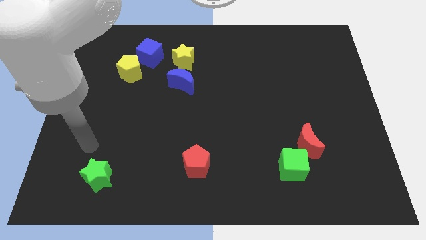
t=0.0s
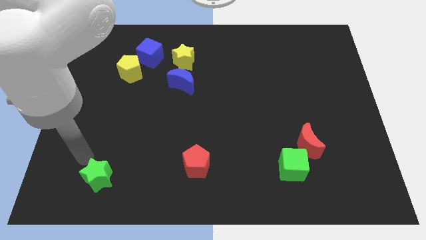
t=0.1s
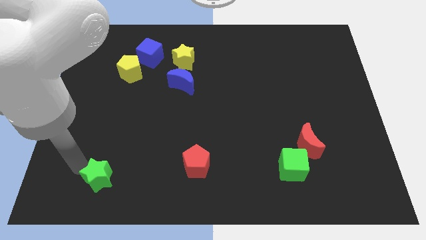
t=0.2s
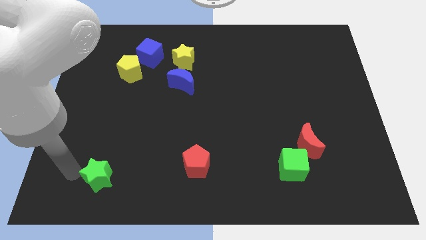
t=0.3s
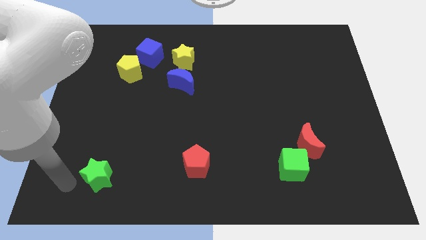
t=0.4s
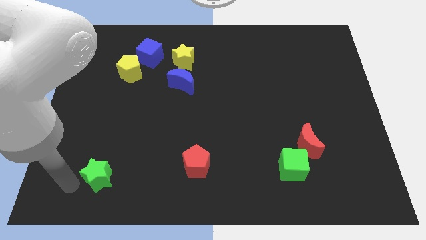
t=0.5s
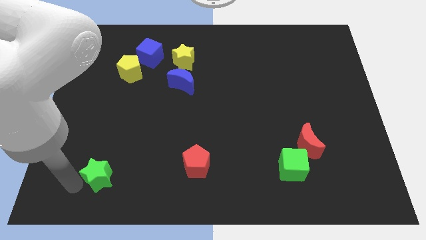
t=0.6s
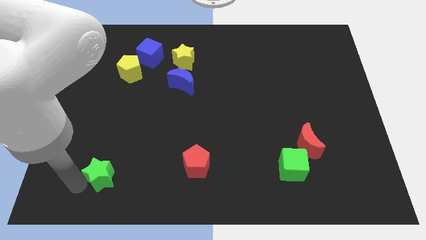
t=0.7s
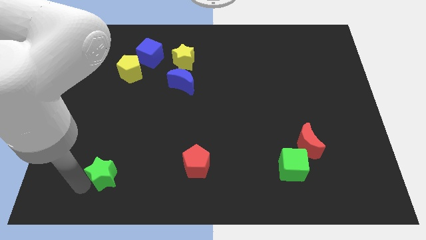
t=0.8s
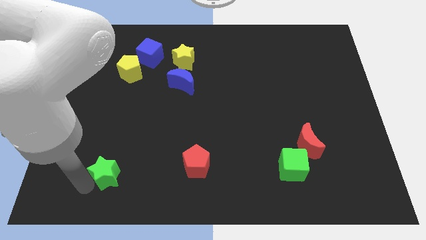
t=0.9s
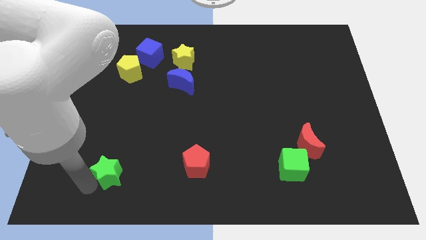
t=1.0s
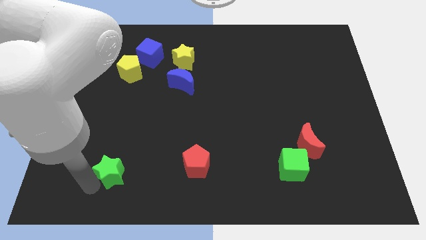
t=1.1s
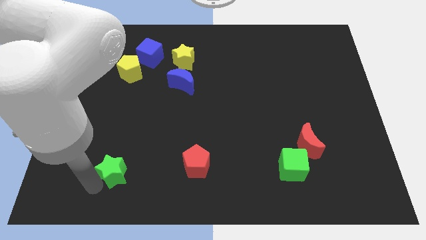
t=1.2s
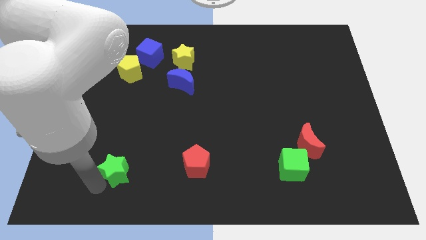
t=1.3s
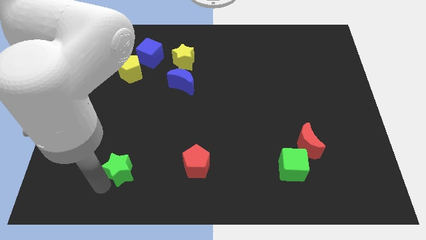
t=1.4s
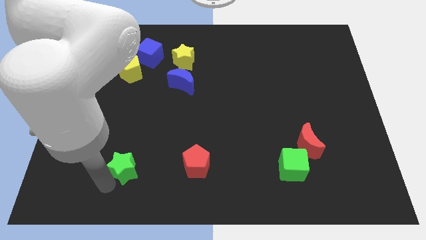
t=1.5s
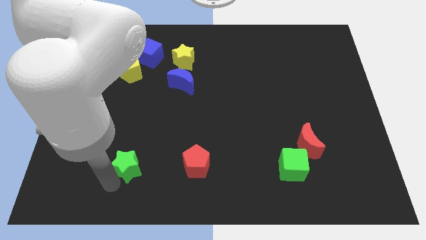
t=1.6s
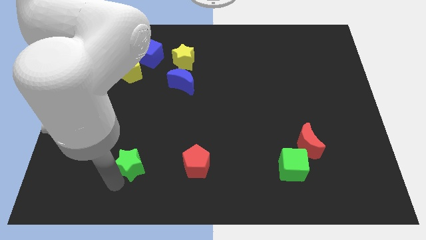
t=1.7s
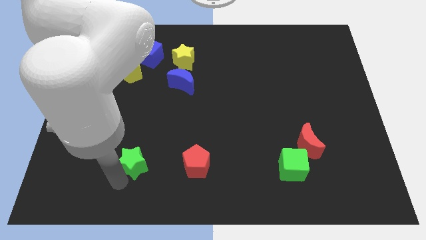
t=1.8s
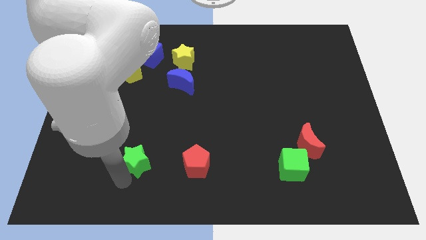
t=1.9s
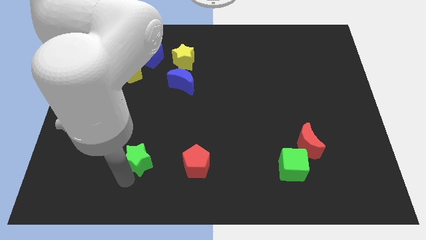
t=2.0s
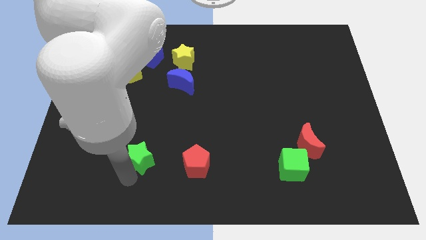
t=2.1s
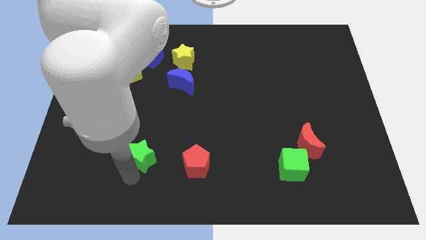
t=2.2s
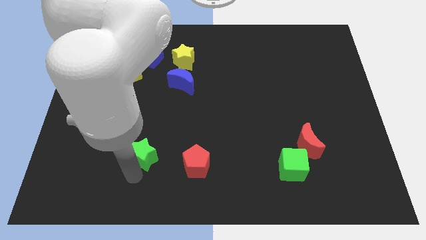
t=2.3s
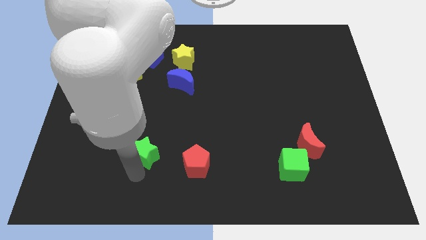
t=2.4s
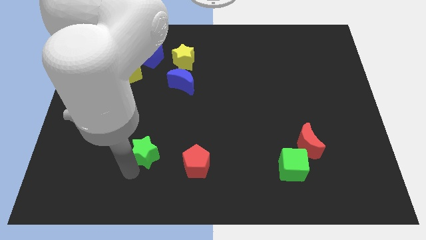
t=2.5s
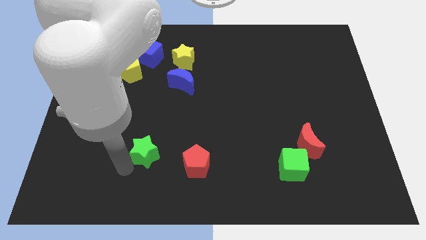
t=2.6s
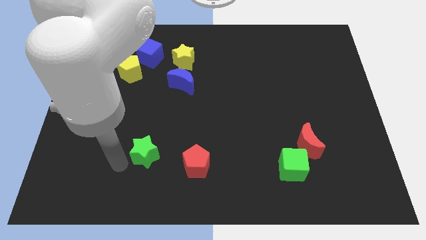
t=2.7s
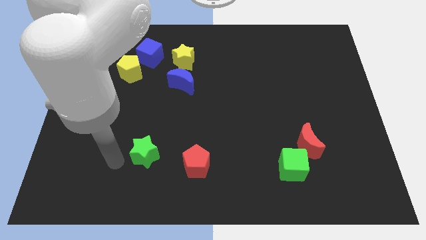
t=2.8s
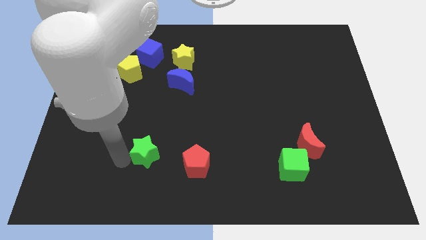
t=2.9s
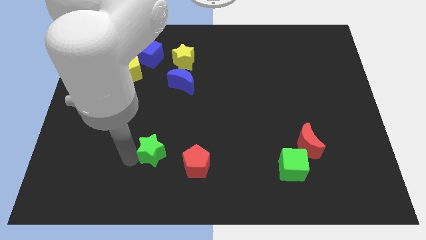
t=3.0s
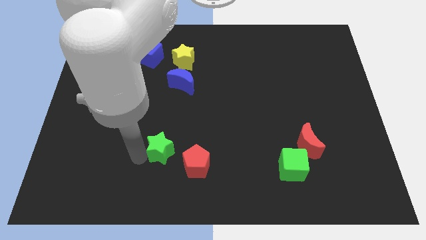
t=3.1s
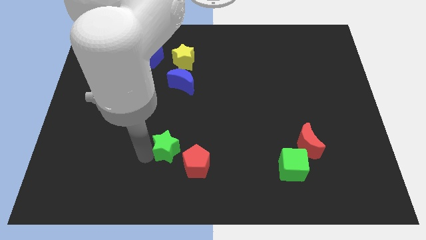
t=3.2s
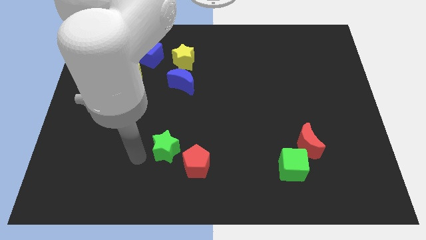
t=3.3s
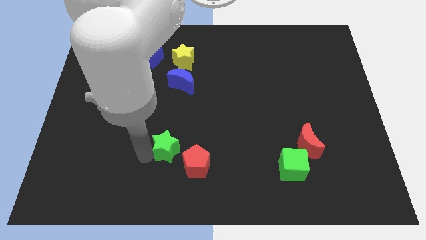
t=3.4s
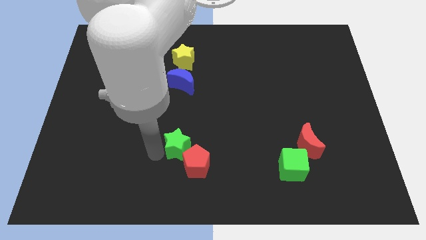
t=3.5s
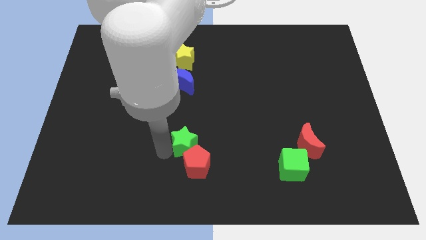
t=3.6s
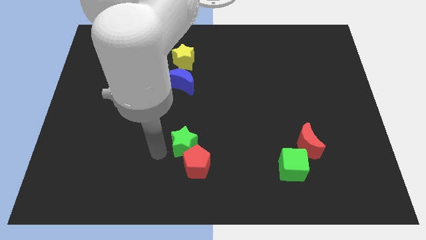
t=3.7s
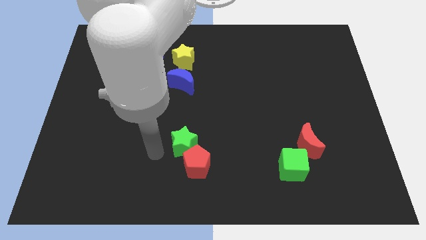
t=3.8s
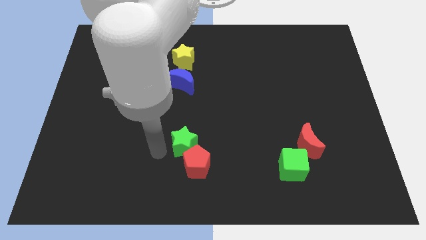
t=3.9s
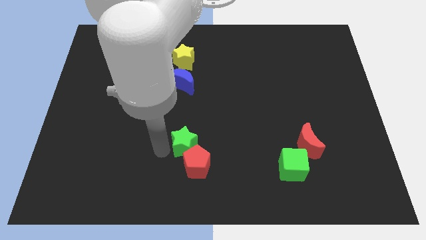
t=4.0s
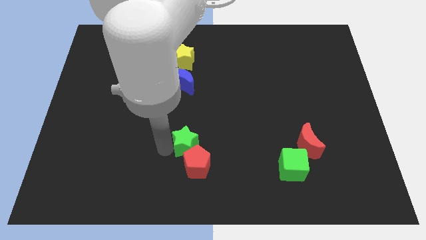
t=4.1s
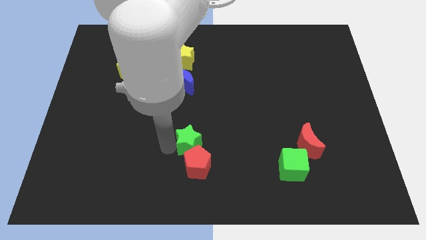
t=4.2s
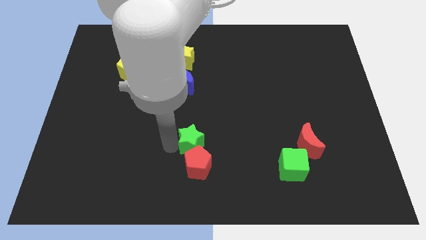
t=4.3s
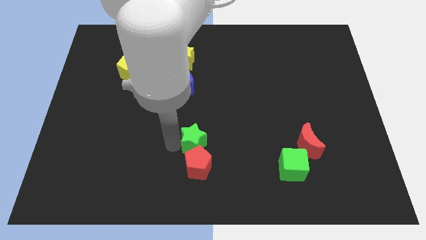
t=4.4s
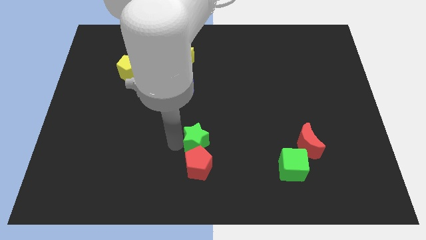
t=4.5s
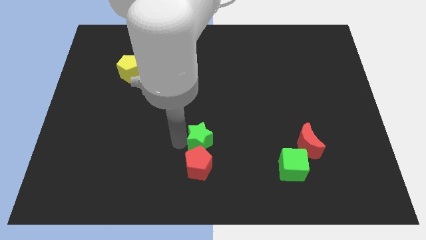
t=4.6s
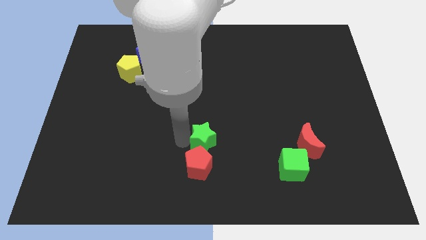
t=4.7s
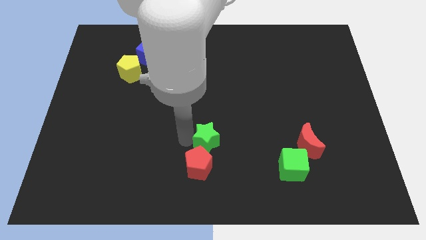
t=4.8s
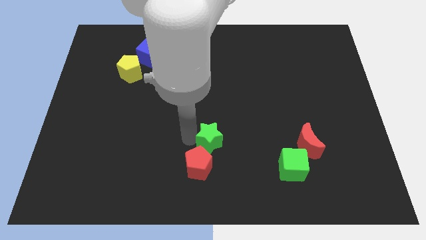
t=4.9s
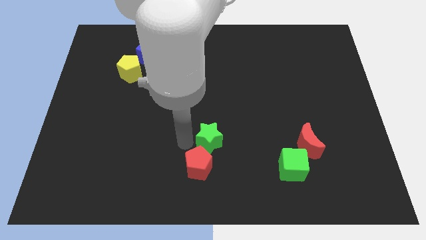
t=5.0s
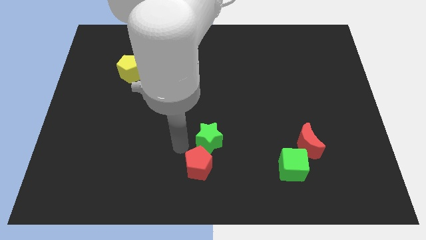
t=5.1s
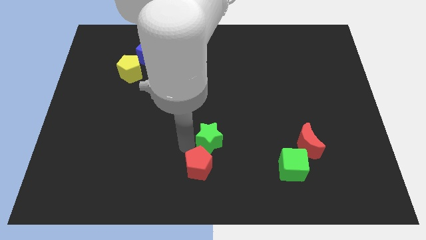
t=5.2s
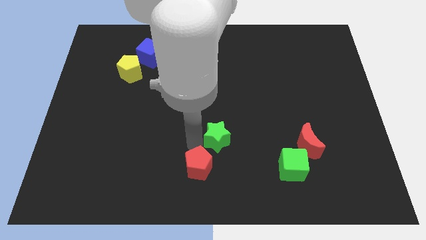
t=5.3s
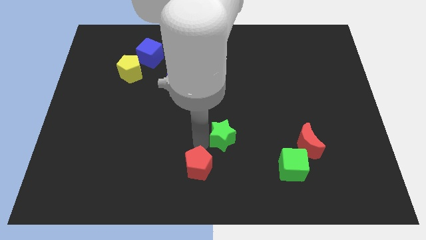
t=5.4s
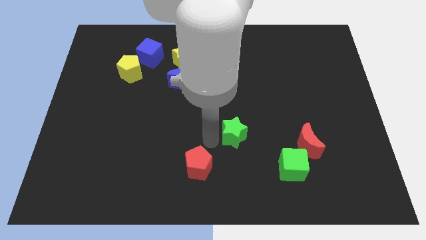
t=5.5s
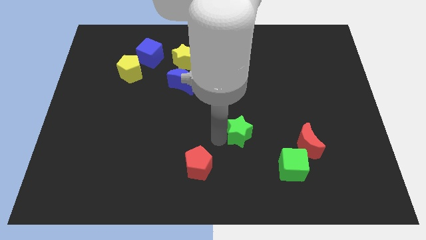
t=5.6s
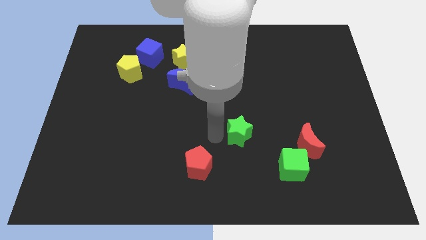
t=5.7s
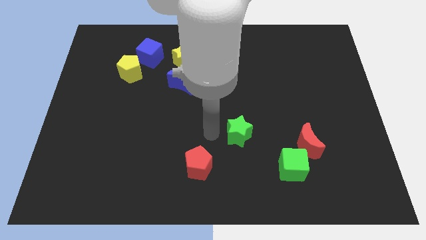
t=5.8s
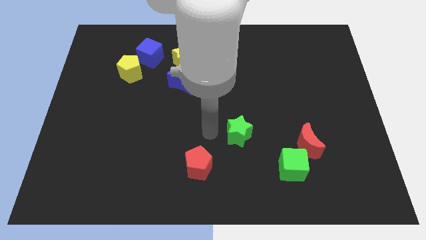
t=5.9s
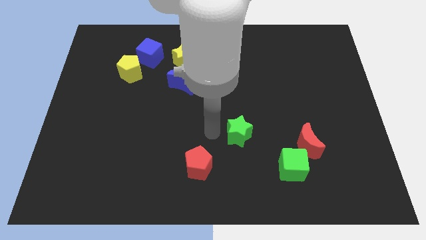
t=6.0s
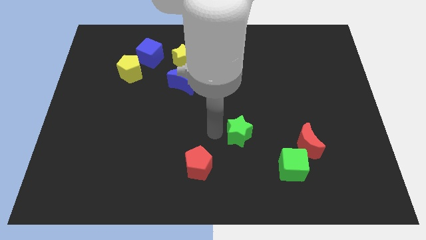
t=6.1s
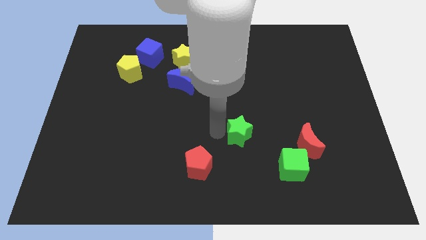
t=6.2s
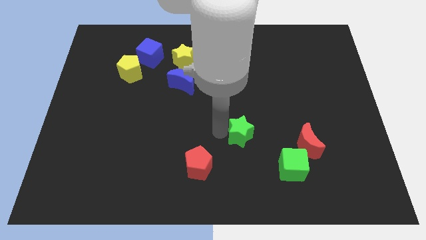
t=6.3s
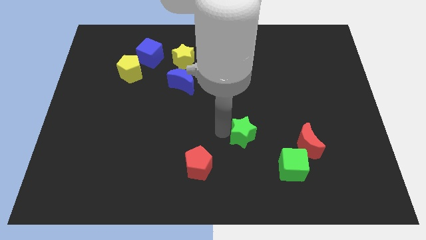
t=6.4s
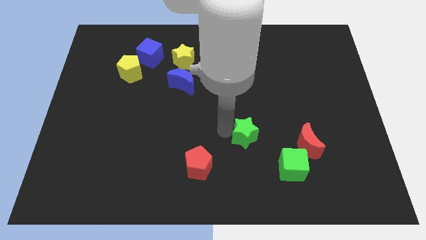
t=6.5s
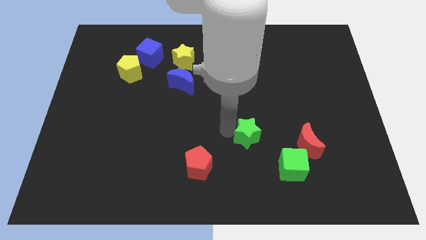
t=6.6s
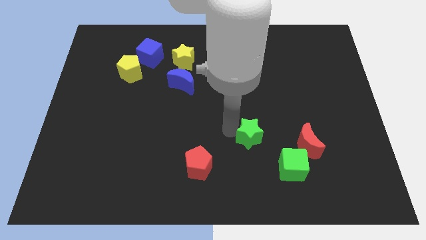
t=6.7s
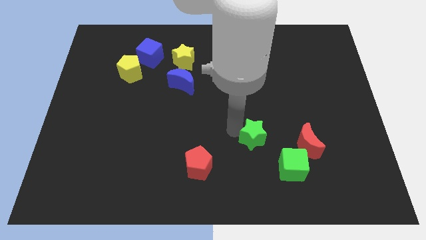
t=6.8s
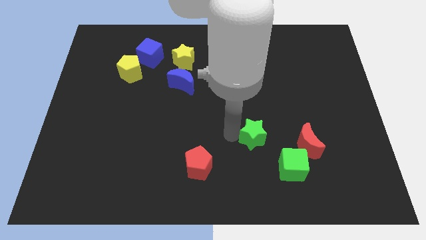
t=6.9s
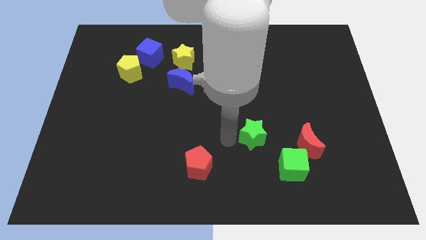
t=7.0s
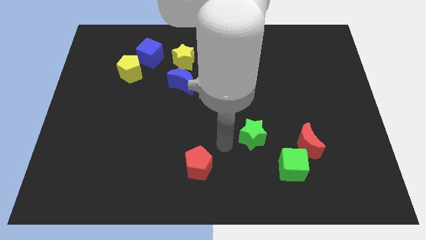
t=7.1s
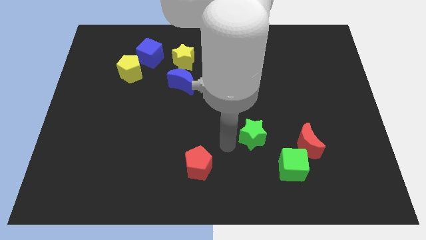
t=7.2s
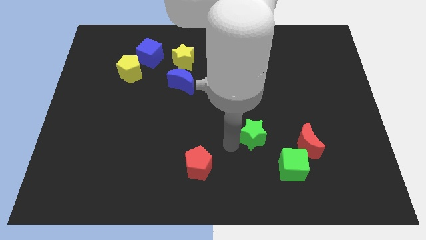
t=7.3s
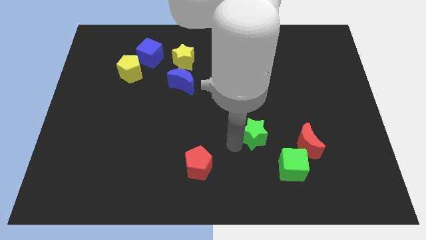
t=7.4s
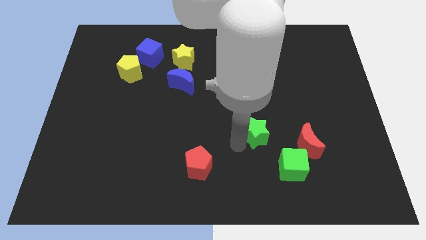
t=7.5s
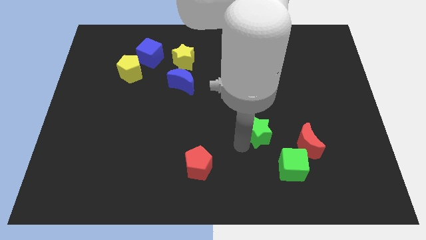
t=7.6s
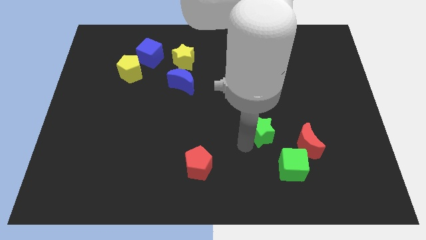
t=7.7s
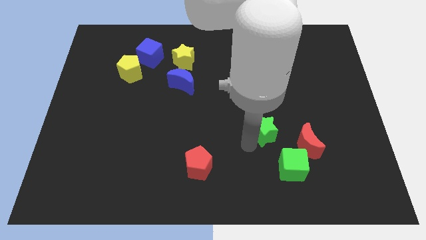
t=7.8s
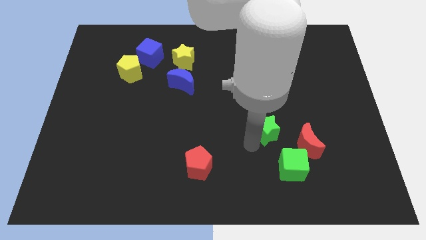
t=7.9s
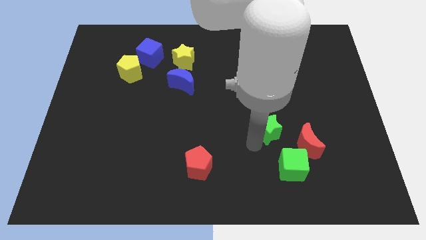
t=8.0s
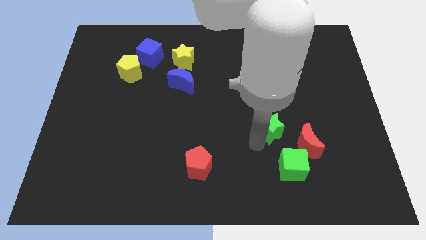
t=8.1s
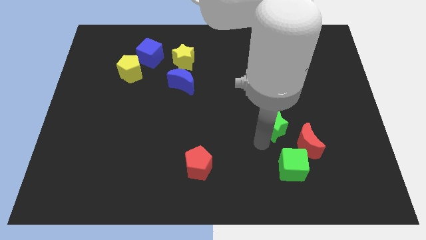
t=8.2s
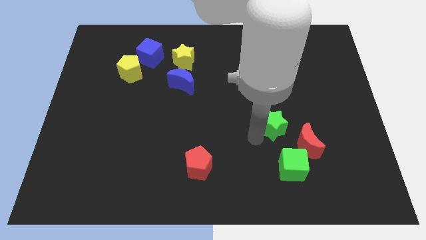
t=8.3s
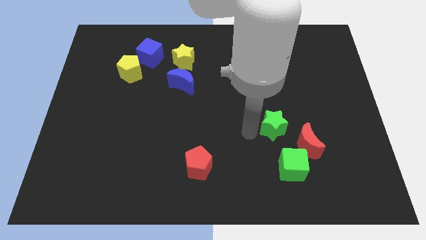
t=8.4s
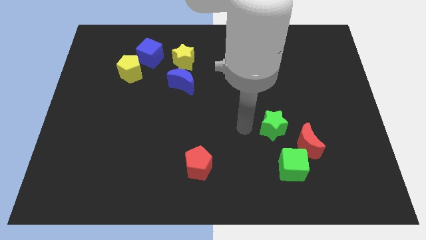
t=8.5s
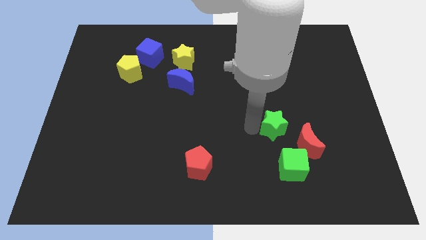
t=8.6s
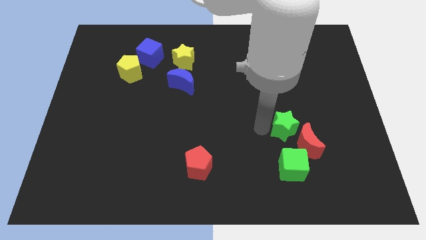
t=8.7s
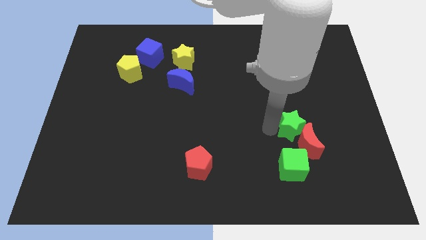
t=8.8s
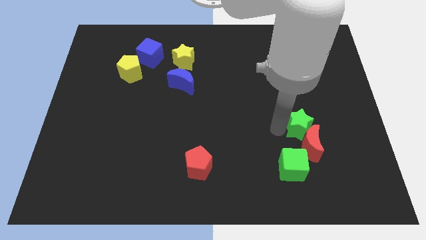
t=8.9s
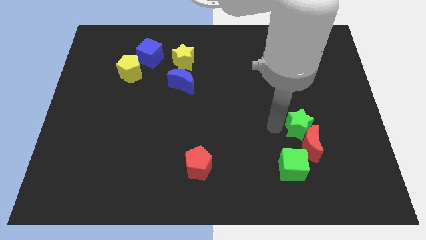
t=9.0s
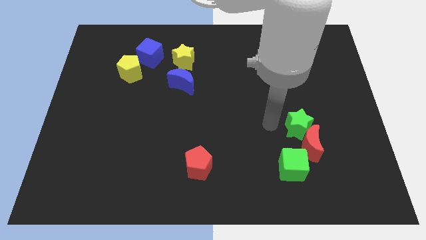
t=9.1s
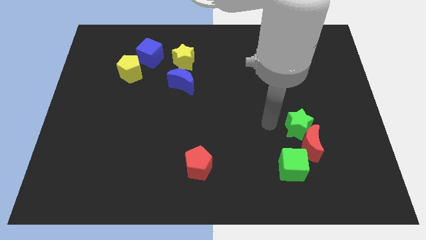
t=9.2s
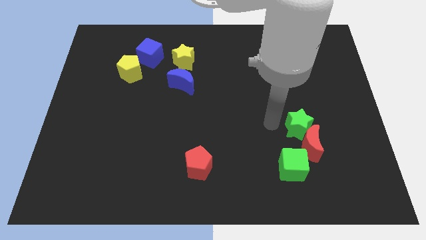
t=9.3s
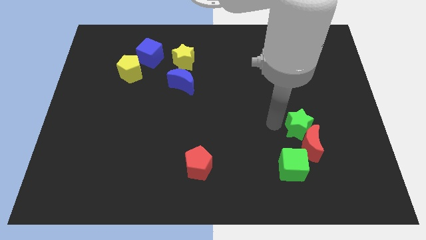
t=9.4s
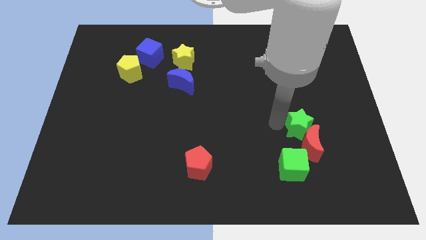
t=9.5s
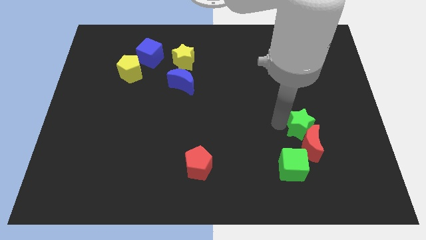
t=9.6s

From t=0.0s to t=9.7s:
move the green star diagonally up and to the right of the green cube
